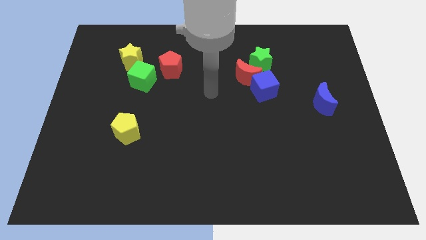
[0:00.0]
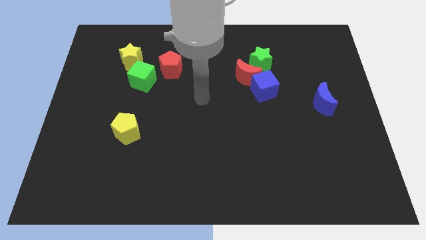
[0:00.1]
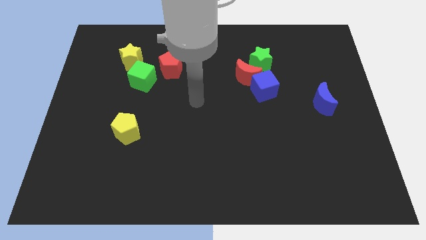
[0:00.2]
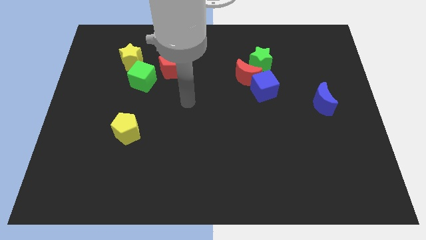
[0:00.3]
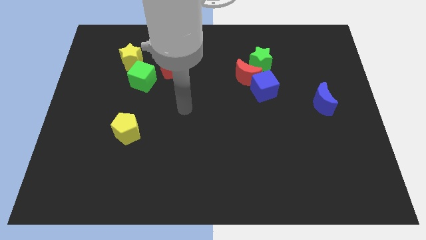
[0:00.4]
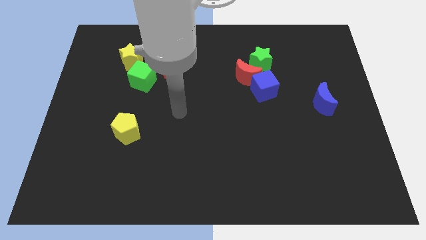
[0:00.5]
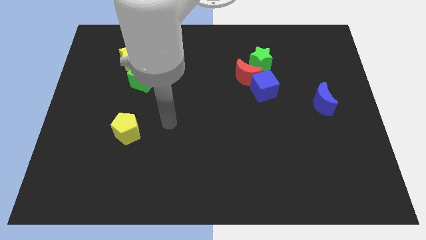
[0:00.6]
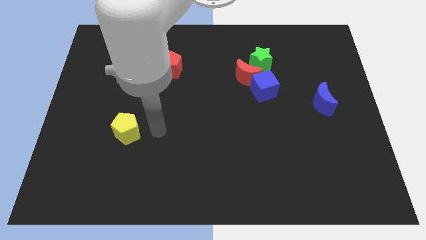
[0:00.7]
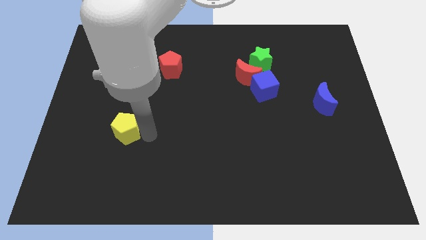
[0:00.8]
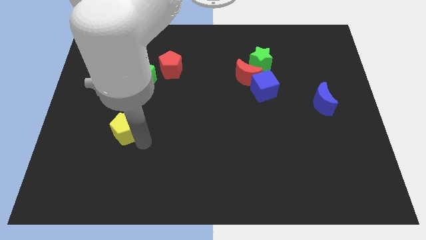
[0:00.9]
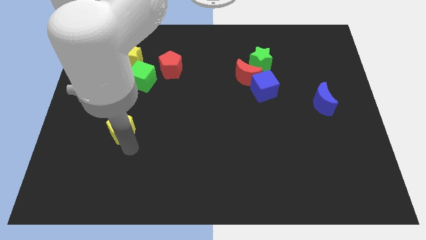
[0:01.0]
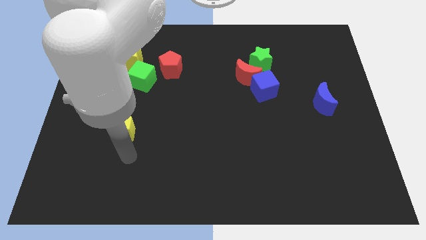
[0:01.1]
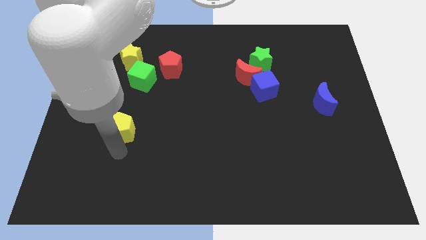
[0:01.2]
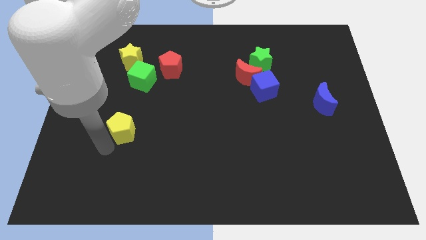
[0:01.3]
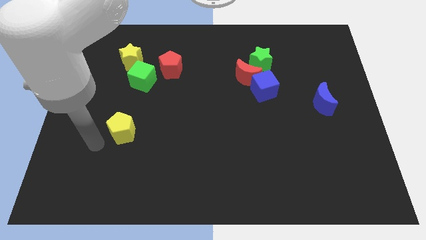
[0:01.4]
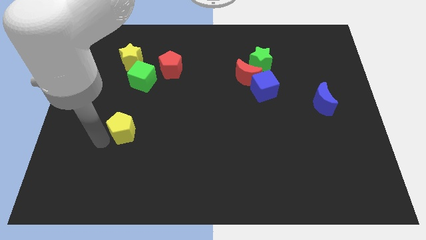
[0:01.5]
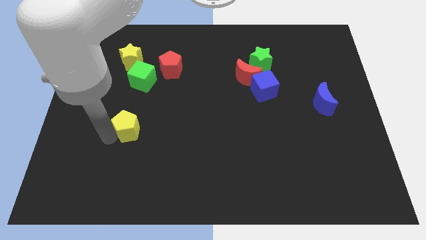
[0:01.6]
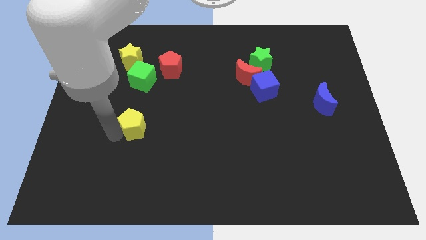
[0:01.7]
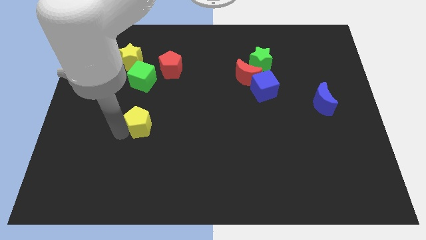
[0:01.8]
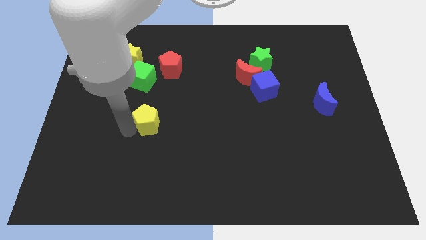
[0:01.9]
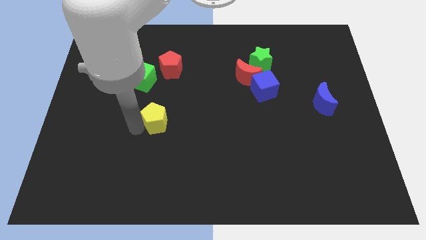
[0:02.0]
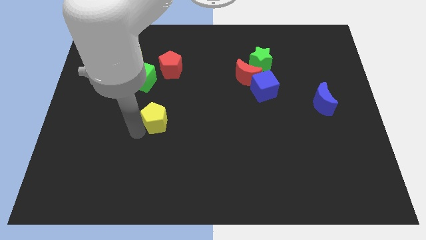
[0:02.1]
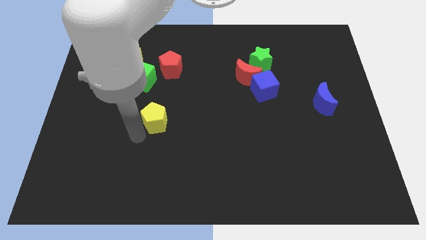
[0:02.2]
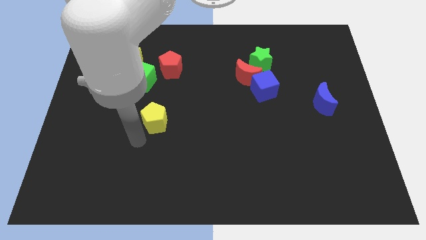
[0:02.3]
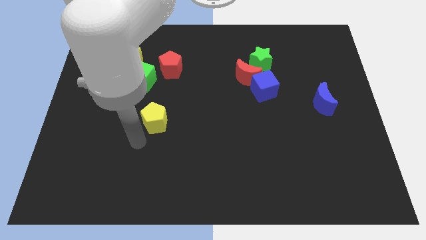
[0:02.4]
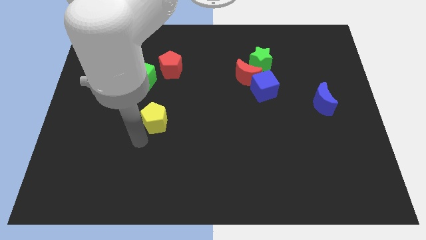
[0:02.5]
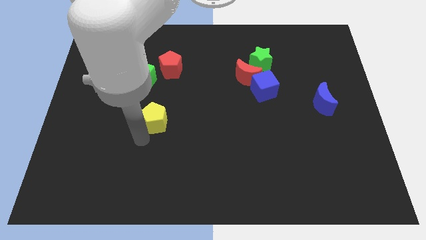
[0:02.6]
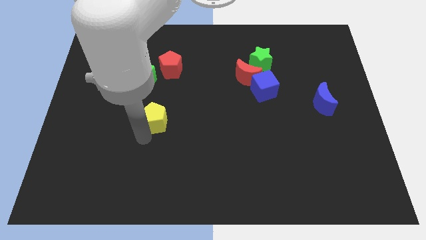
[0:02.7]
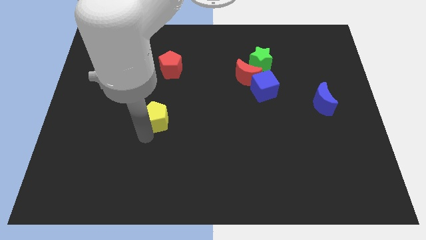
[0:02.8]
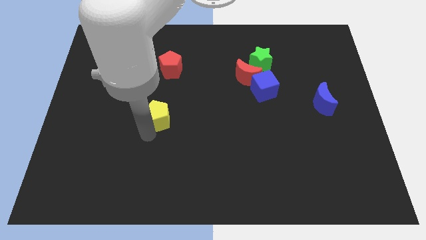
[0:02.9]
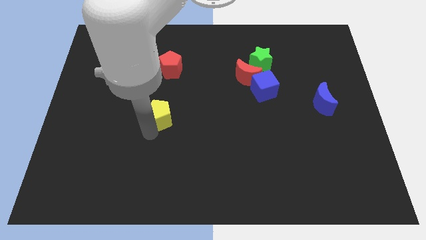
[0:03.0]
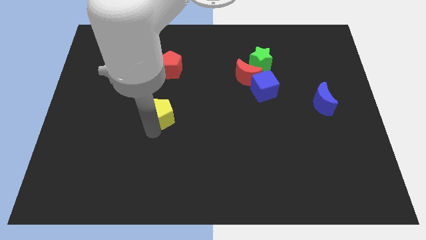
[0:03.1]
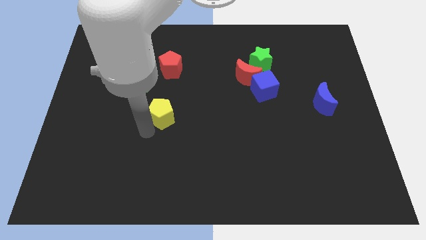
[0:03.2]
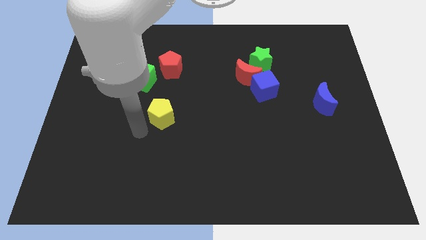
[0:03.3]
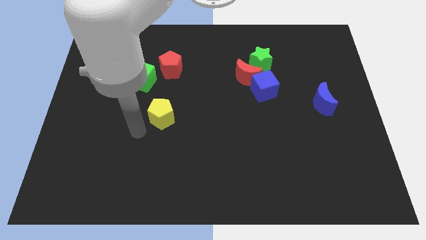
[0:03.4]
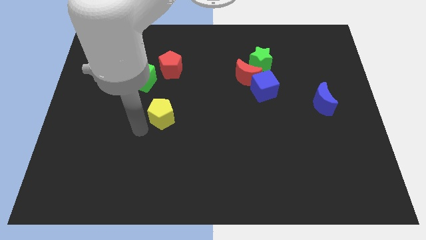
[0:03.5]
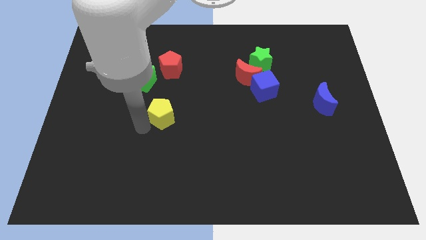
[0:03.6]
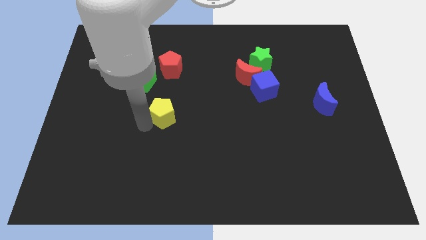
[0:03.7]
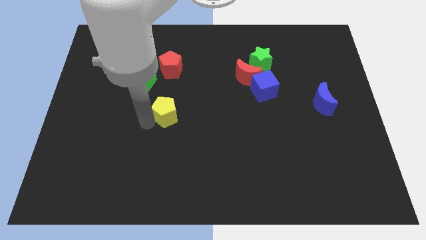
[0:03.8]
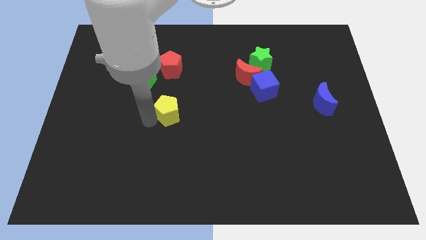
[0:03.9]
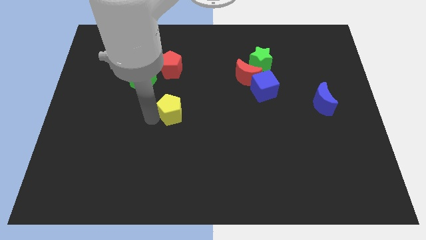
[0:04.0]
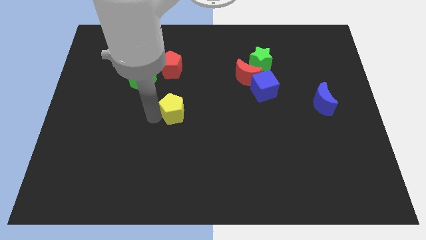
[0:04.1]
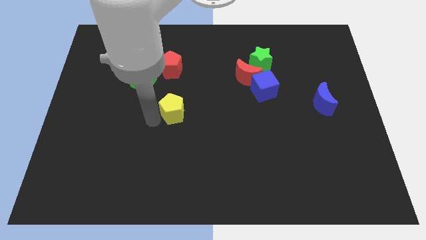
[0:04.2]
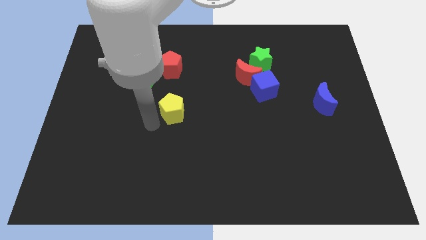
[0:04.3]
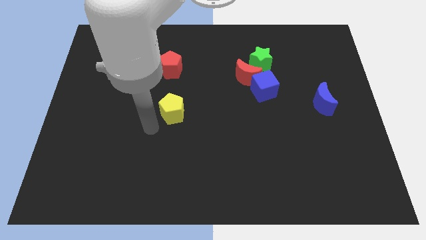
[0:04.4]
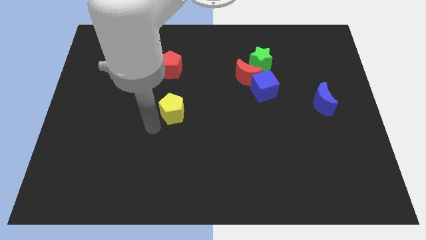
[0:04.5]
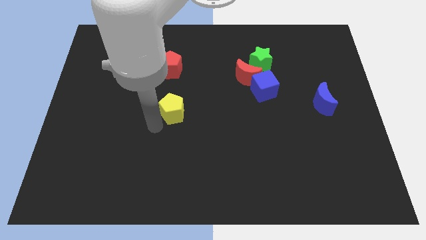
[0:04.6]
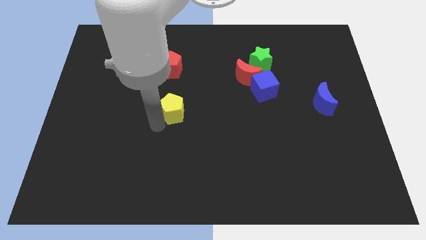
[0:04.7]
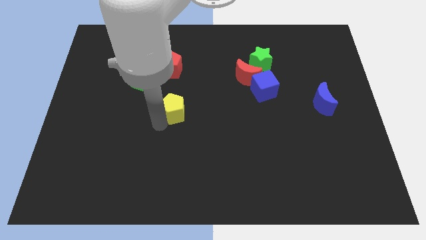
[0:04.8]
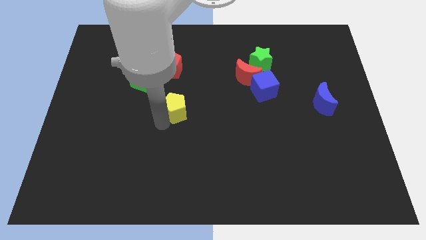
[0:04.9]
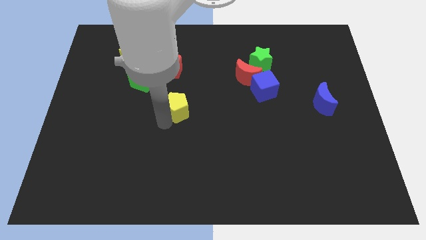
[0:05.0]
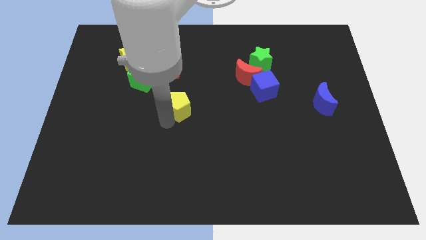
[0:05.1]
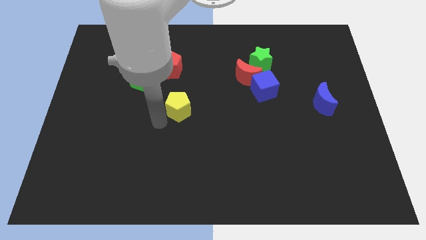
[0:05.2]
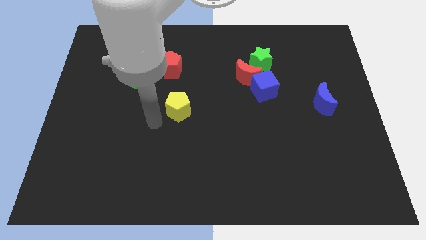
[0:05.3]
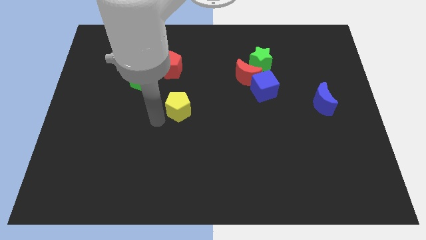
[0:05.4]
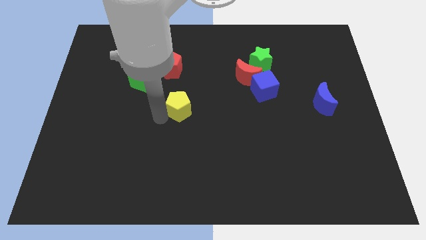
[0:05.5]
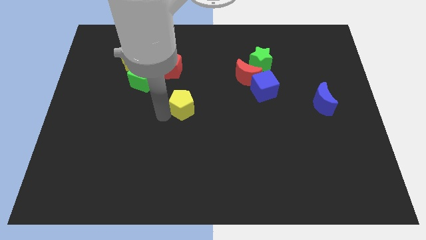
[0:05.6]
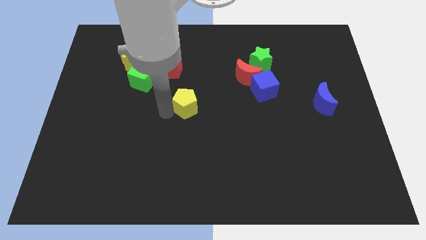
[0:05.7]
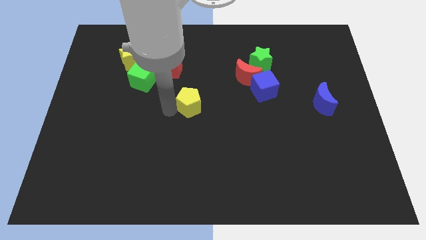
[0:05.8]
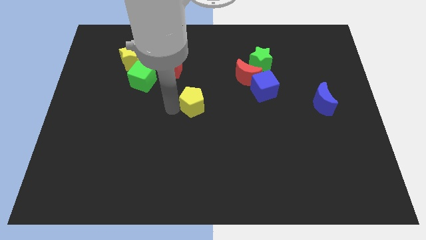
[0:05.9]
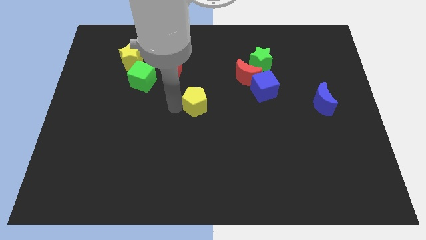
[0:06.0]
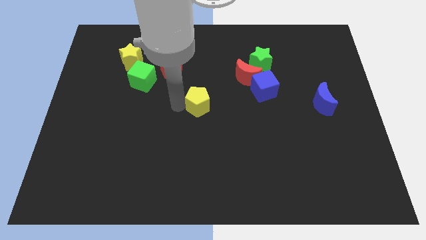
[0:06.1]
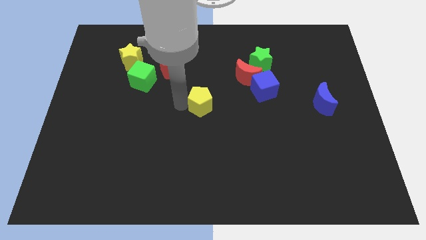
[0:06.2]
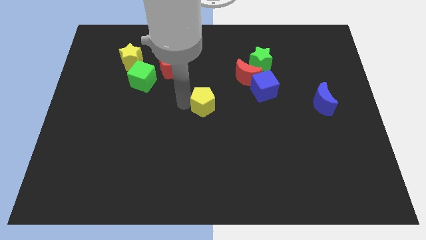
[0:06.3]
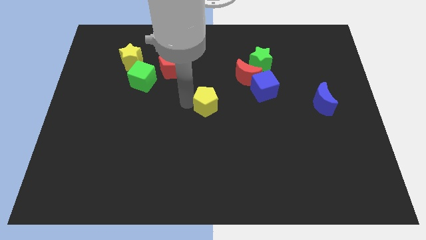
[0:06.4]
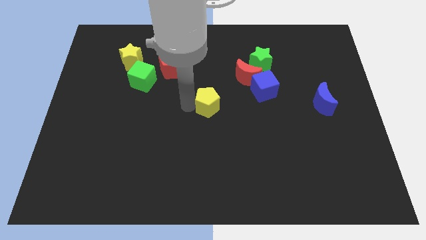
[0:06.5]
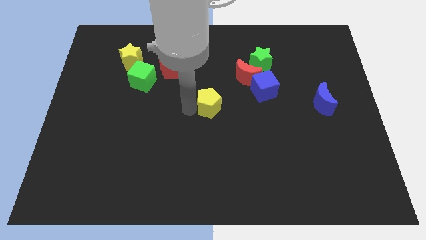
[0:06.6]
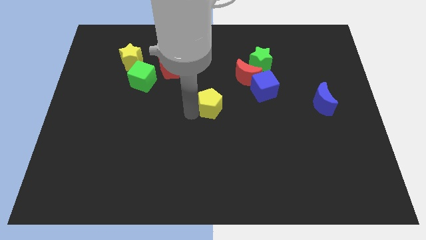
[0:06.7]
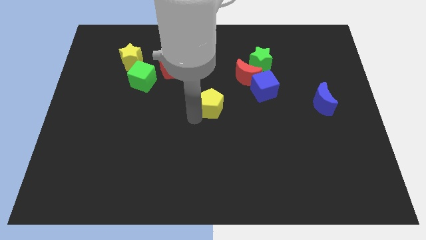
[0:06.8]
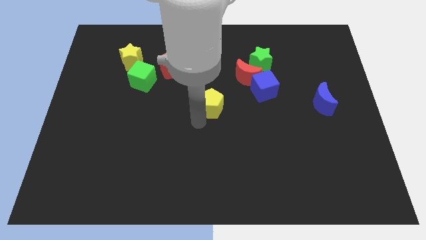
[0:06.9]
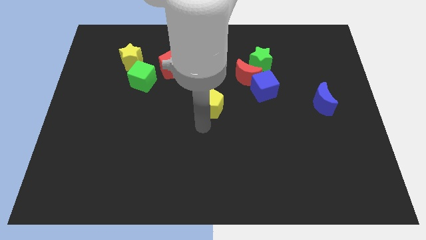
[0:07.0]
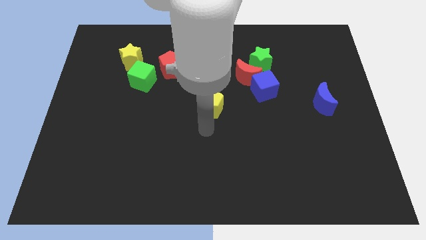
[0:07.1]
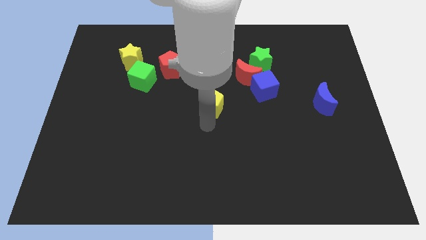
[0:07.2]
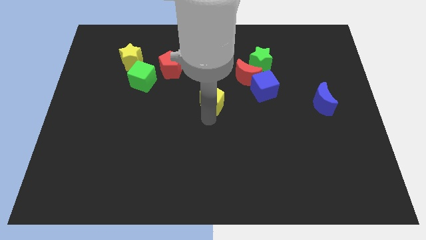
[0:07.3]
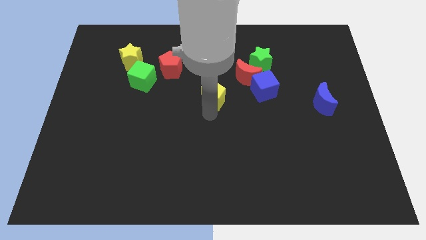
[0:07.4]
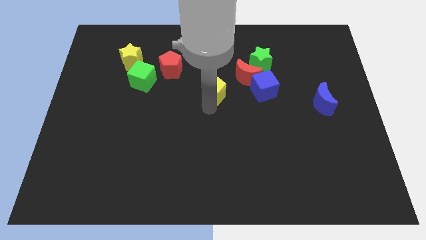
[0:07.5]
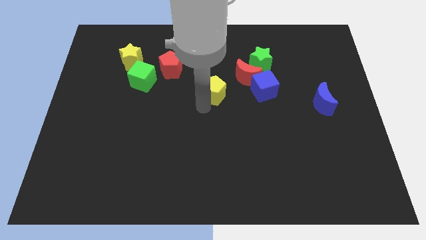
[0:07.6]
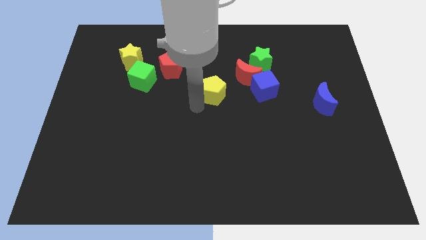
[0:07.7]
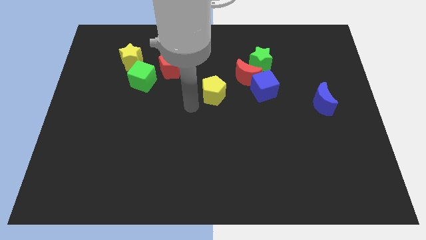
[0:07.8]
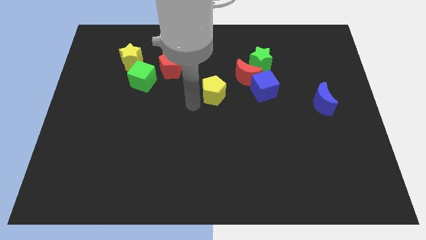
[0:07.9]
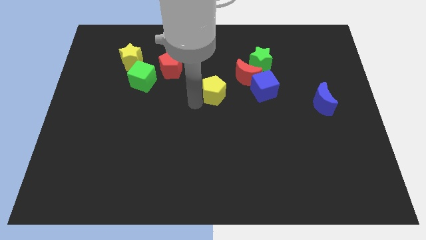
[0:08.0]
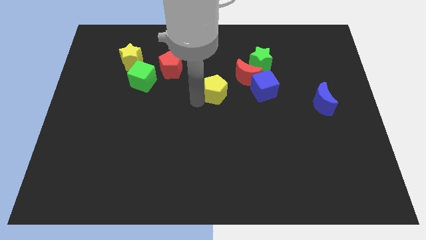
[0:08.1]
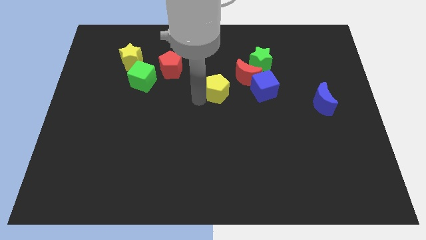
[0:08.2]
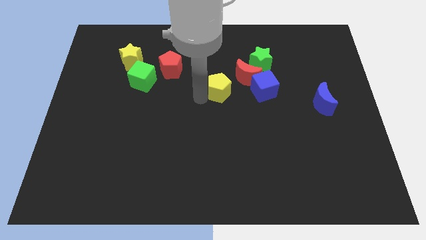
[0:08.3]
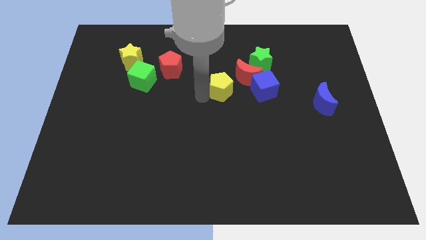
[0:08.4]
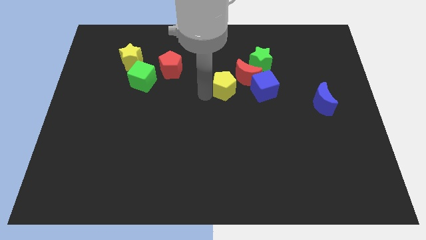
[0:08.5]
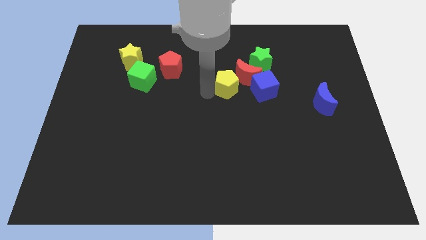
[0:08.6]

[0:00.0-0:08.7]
put the yellow pentagon to the red moon
